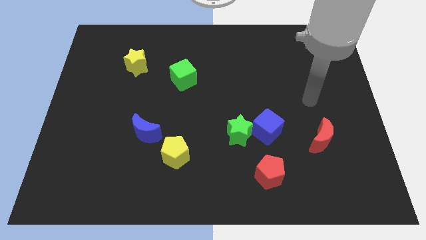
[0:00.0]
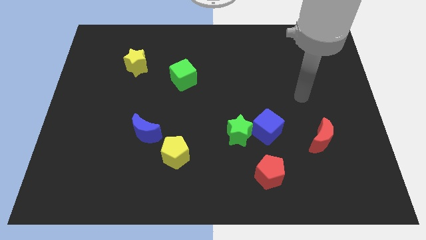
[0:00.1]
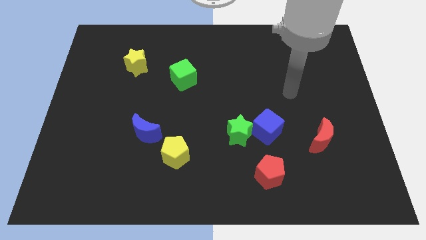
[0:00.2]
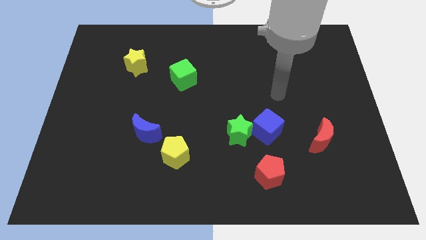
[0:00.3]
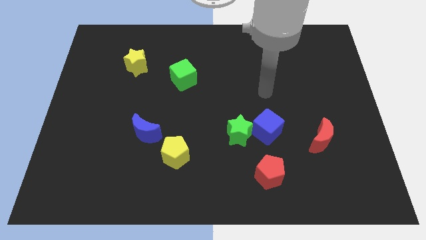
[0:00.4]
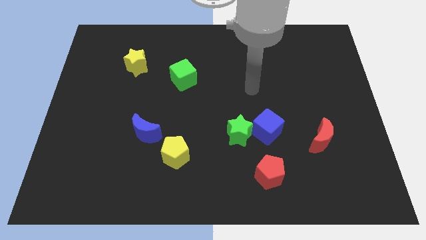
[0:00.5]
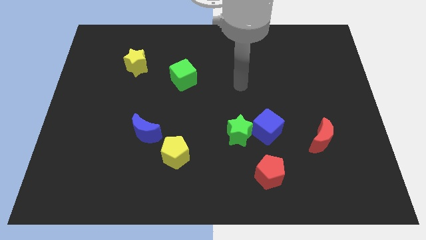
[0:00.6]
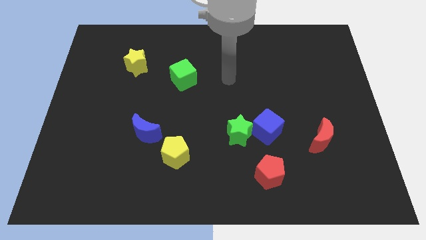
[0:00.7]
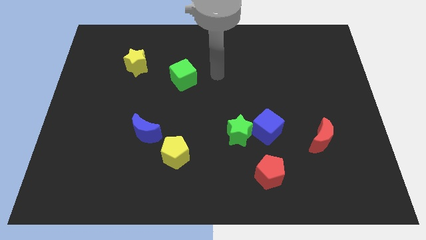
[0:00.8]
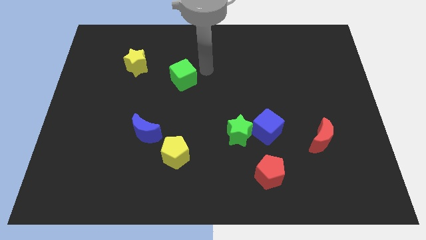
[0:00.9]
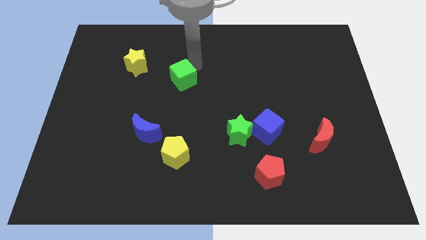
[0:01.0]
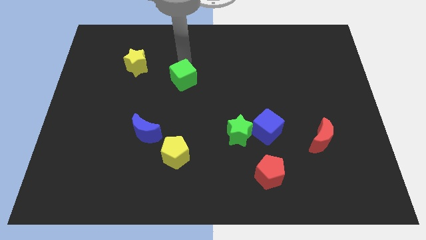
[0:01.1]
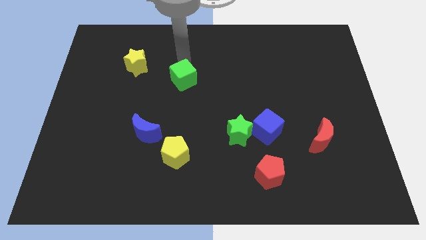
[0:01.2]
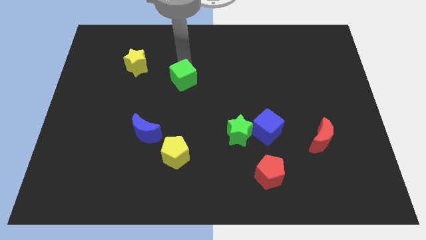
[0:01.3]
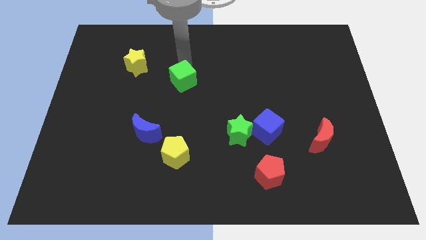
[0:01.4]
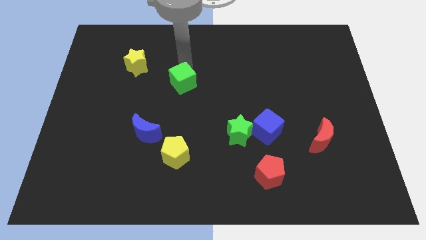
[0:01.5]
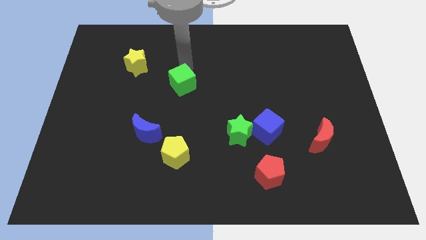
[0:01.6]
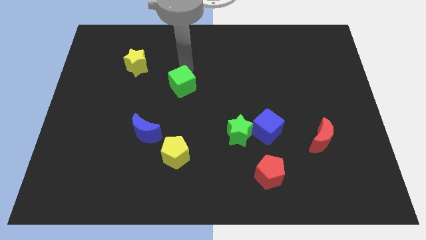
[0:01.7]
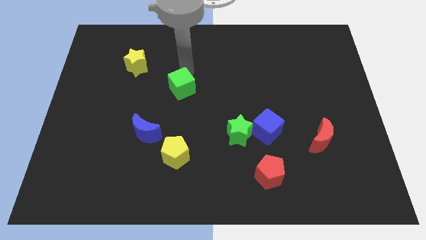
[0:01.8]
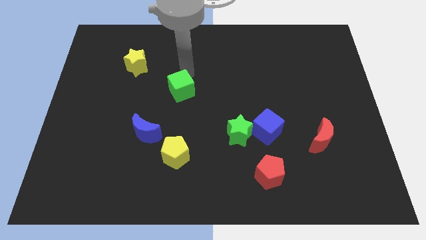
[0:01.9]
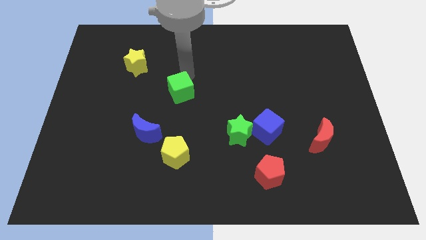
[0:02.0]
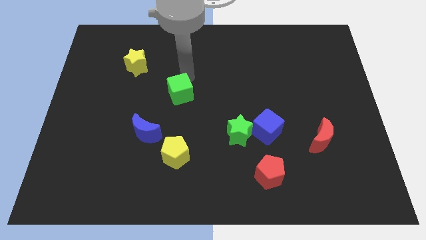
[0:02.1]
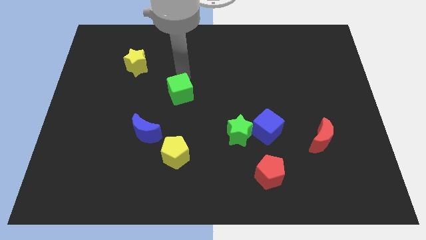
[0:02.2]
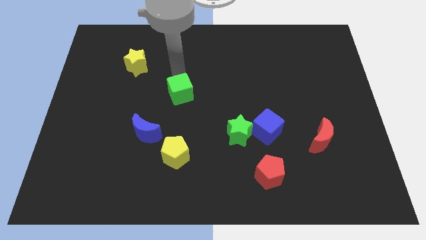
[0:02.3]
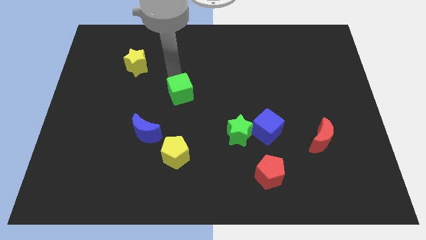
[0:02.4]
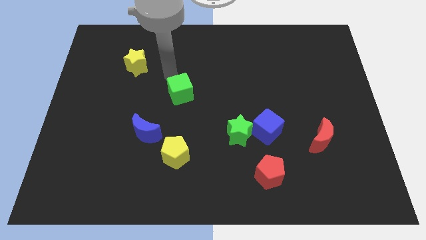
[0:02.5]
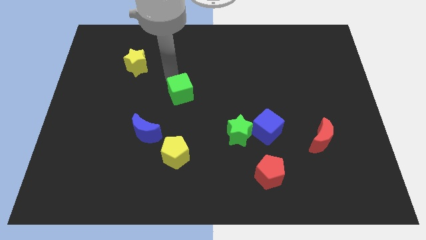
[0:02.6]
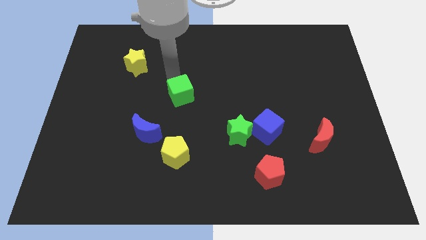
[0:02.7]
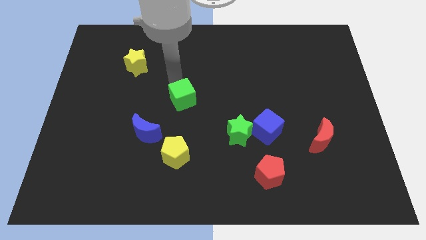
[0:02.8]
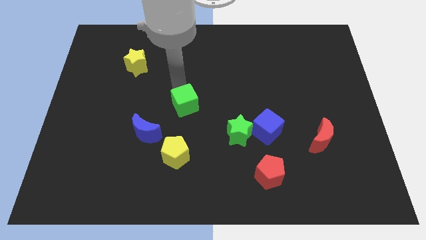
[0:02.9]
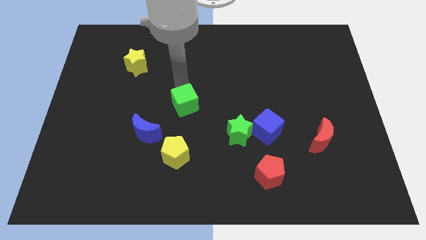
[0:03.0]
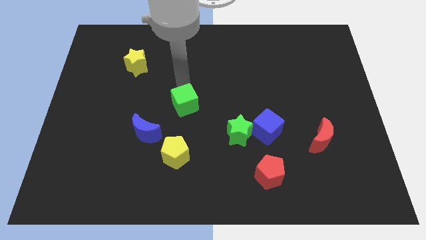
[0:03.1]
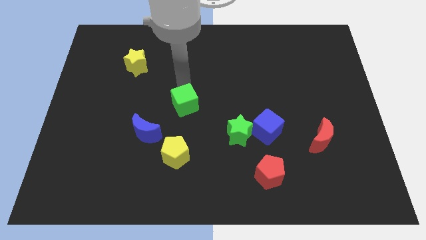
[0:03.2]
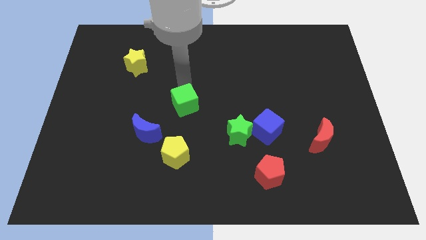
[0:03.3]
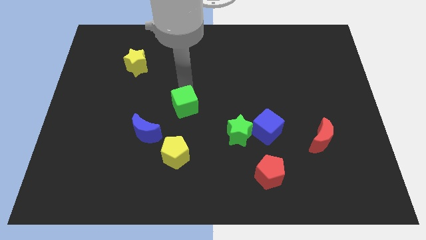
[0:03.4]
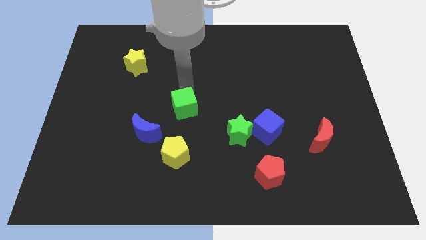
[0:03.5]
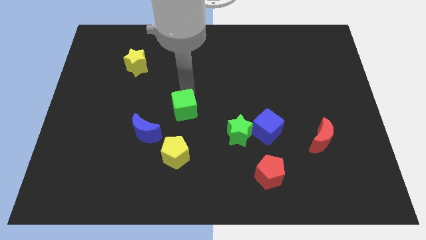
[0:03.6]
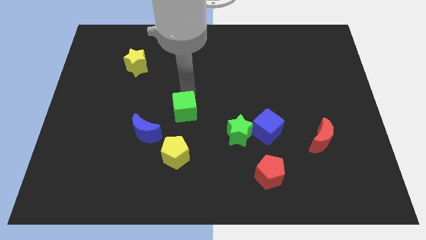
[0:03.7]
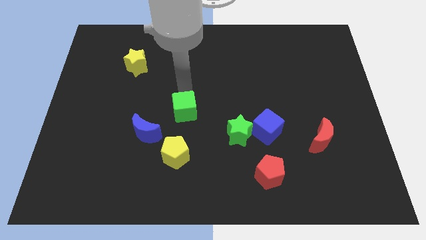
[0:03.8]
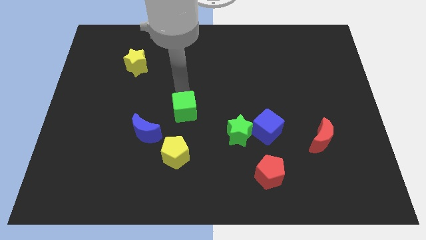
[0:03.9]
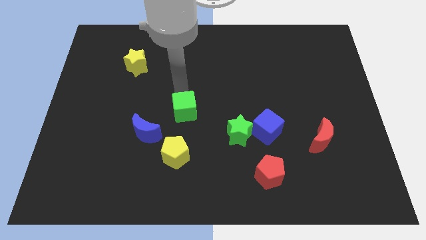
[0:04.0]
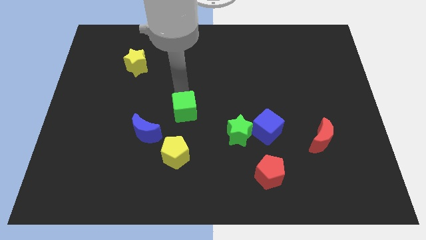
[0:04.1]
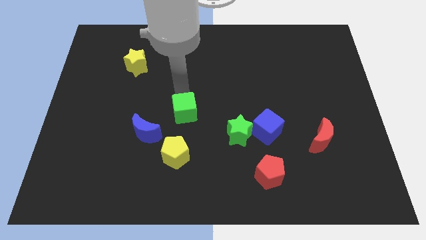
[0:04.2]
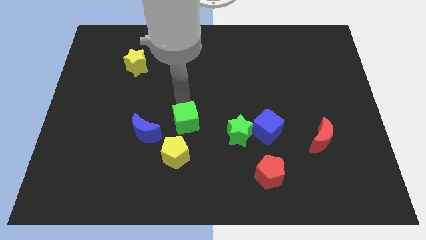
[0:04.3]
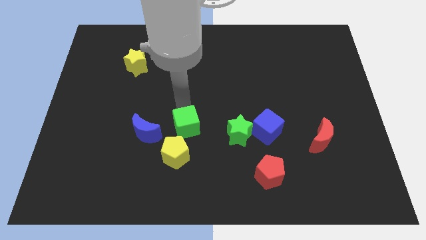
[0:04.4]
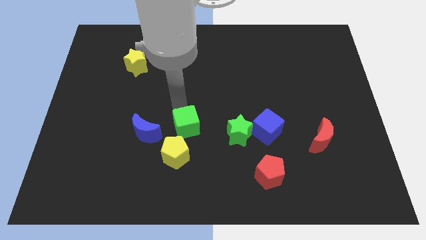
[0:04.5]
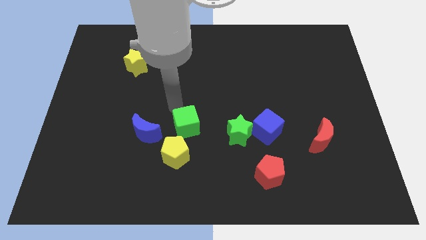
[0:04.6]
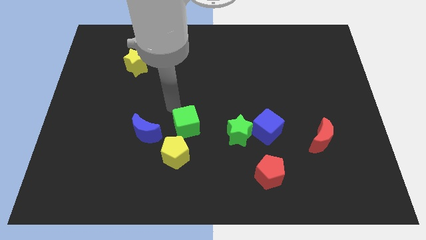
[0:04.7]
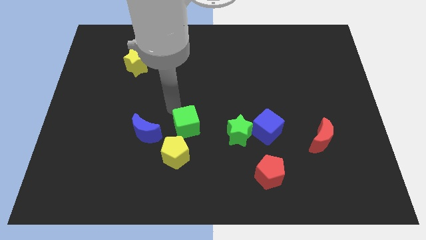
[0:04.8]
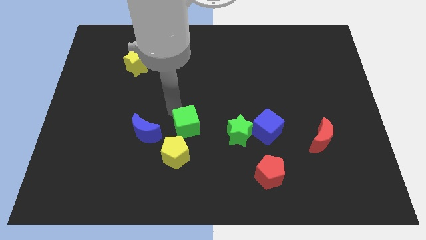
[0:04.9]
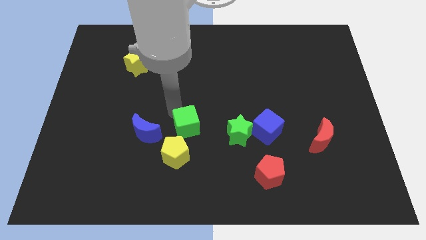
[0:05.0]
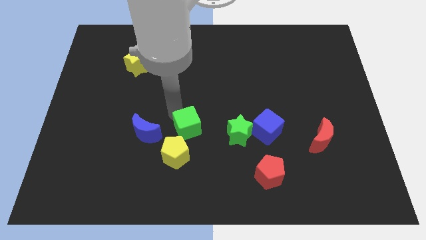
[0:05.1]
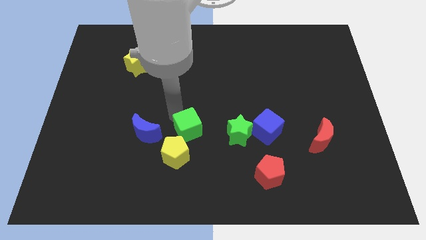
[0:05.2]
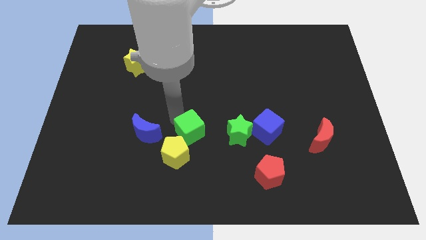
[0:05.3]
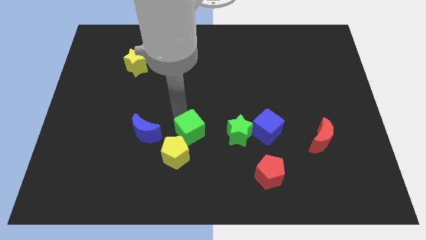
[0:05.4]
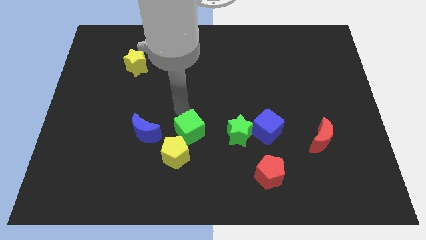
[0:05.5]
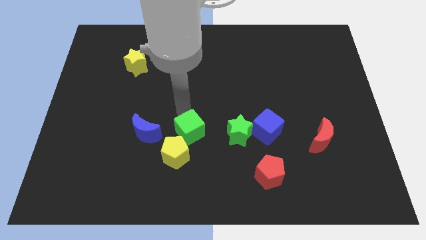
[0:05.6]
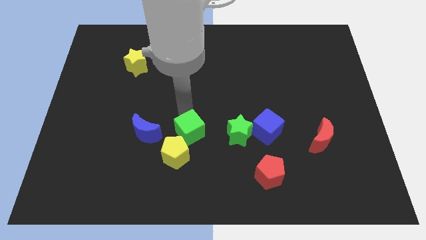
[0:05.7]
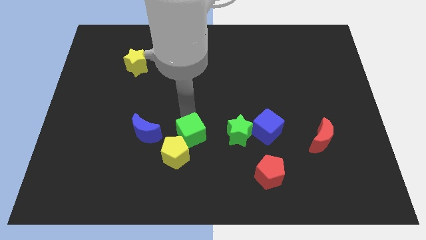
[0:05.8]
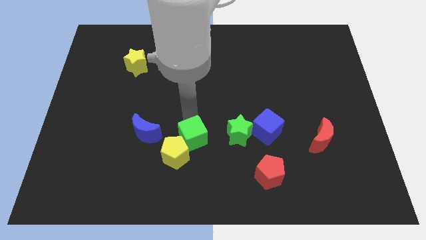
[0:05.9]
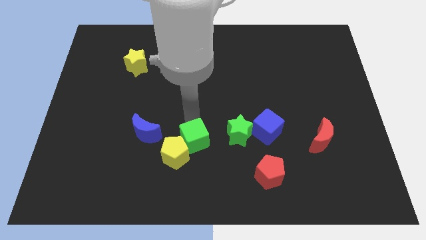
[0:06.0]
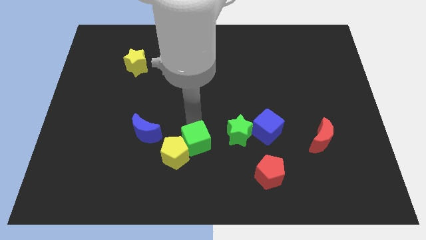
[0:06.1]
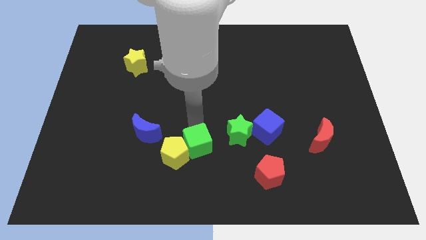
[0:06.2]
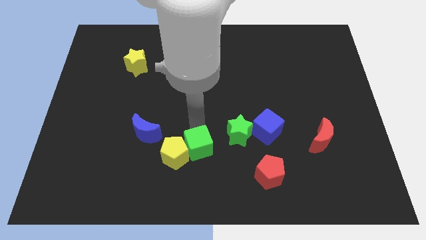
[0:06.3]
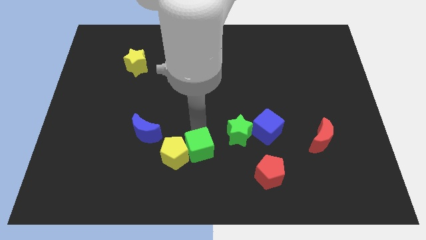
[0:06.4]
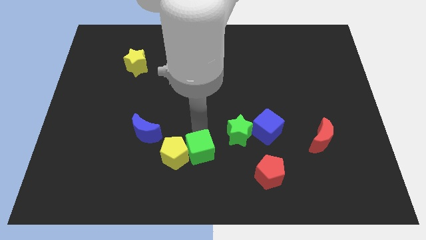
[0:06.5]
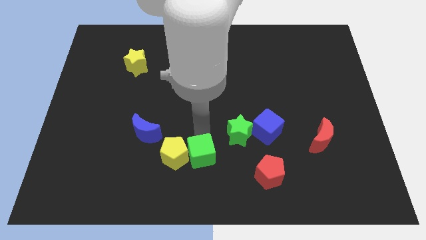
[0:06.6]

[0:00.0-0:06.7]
move the green cube to the bottom side
